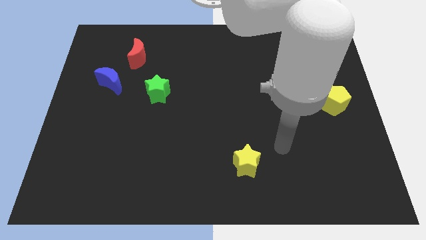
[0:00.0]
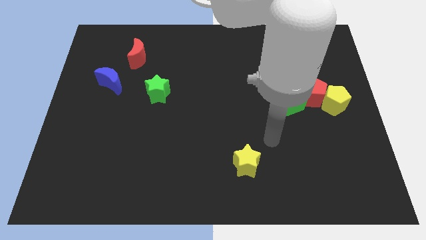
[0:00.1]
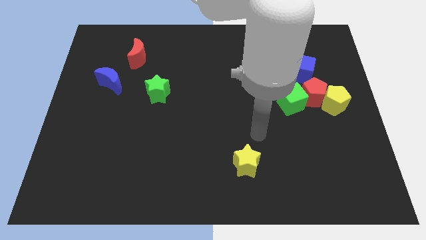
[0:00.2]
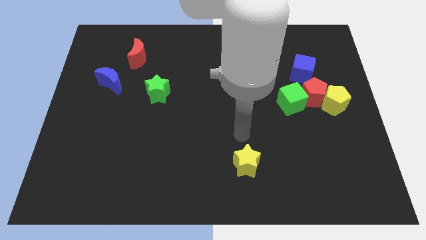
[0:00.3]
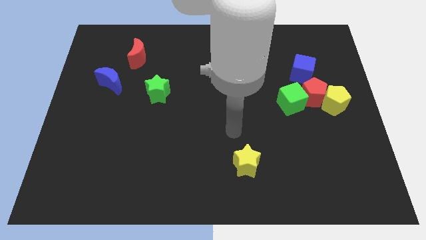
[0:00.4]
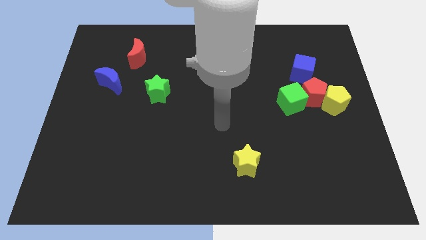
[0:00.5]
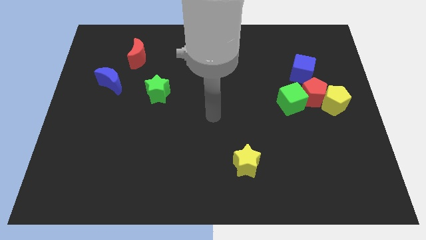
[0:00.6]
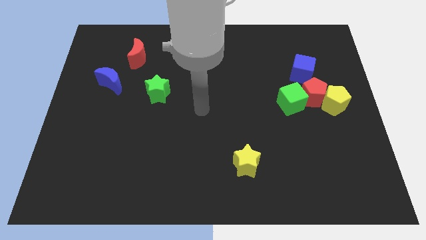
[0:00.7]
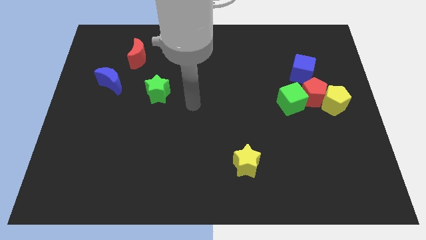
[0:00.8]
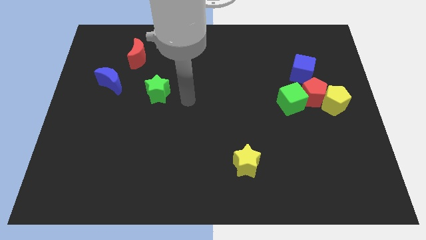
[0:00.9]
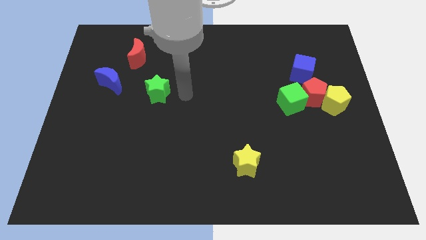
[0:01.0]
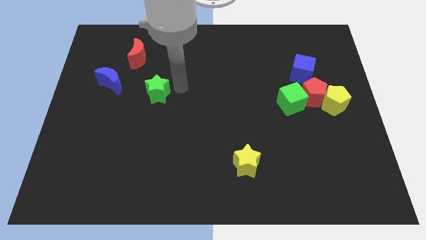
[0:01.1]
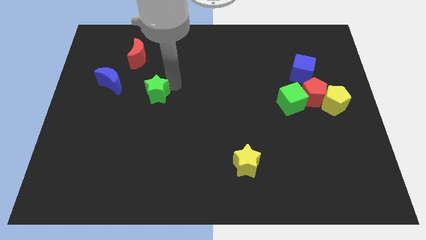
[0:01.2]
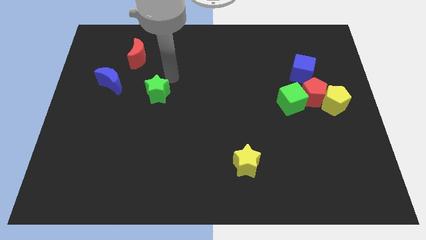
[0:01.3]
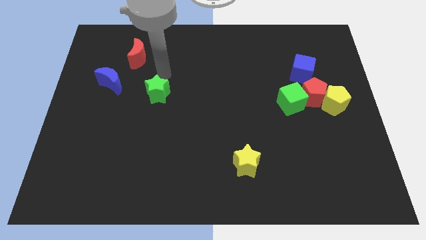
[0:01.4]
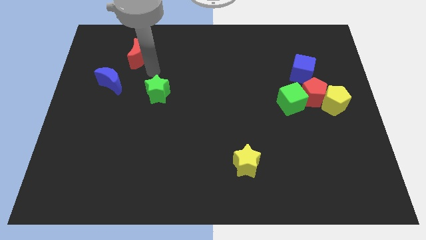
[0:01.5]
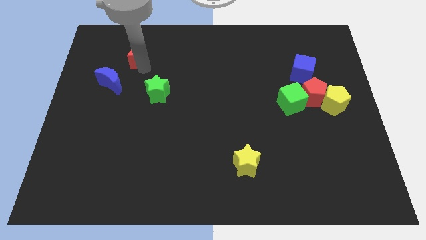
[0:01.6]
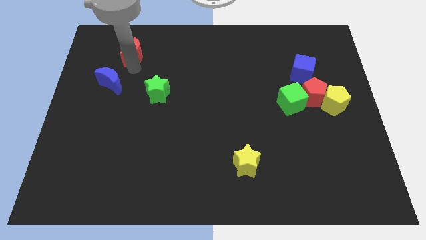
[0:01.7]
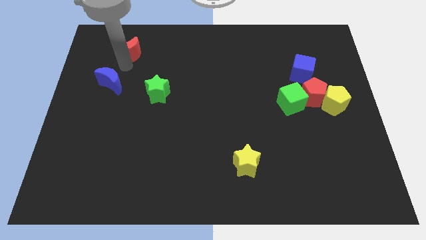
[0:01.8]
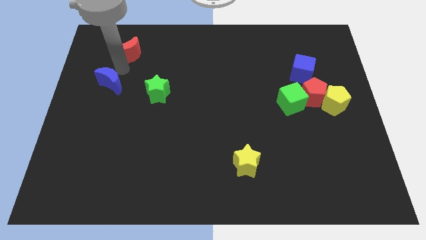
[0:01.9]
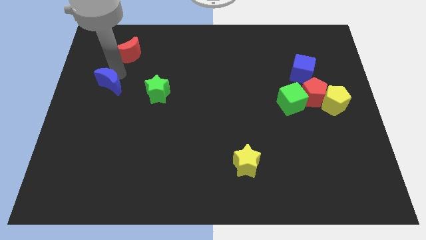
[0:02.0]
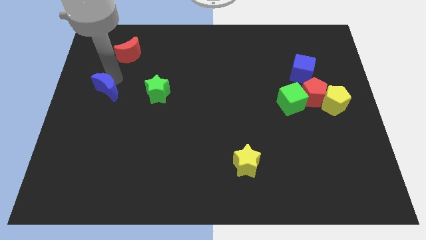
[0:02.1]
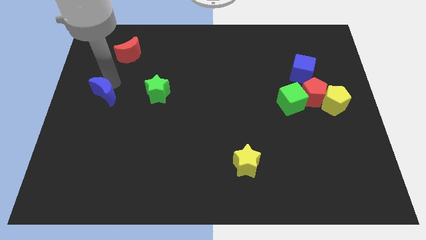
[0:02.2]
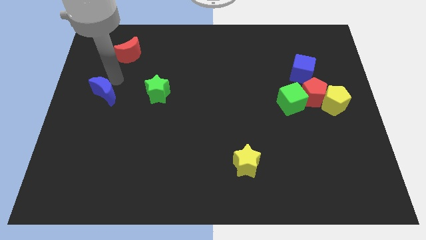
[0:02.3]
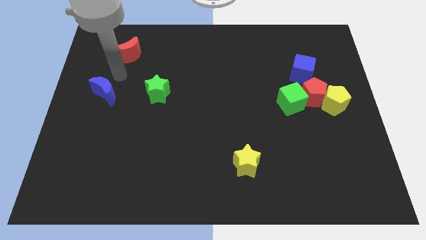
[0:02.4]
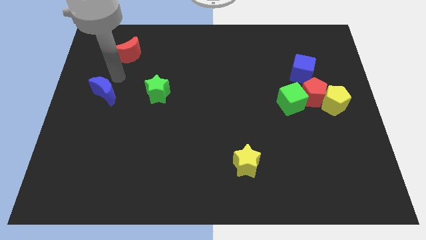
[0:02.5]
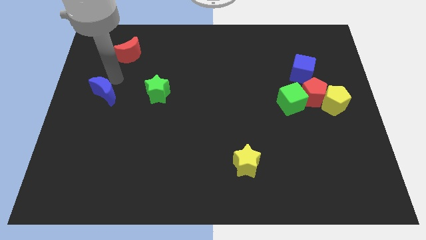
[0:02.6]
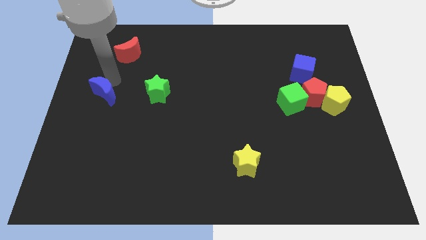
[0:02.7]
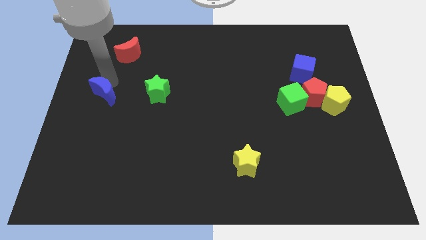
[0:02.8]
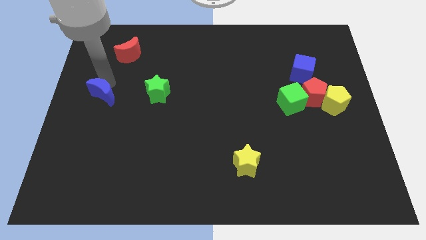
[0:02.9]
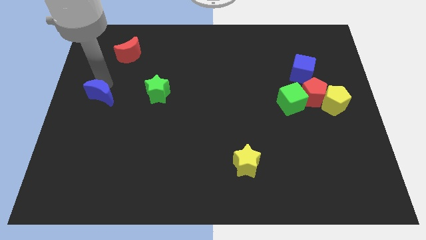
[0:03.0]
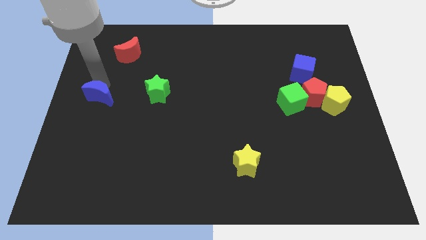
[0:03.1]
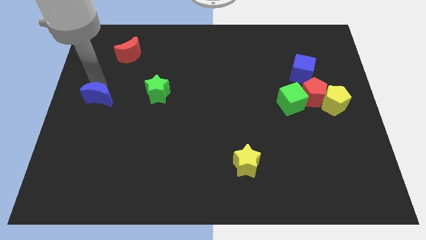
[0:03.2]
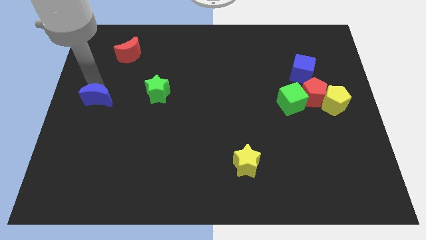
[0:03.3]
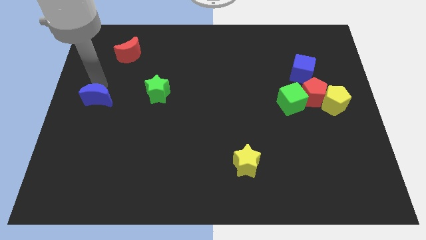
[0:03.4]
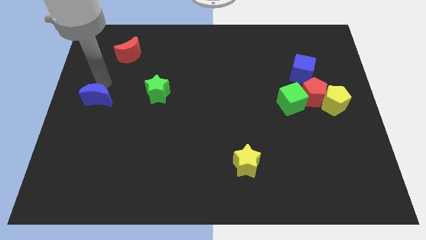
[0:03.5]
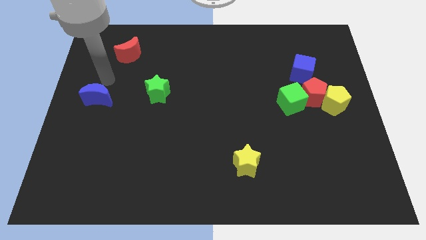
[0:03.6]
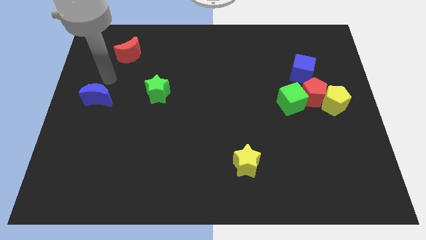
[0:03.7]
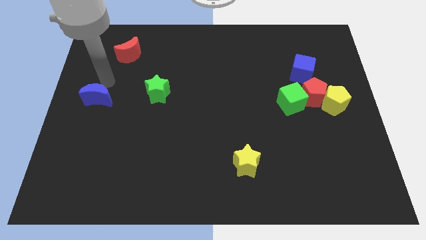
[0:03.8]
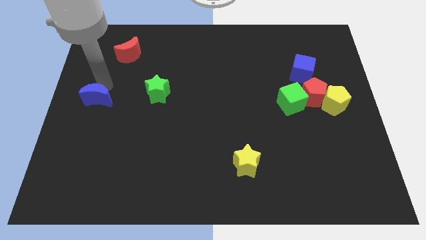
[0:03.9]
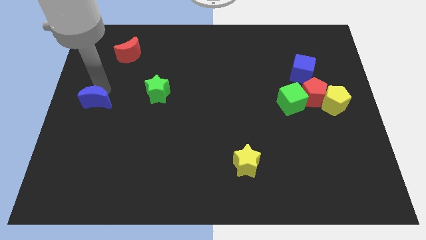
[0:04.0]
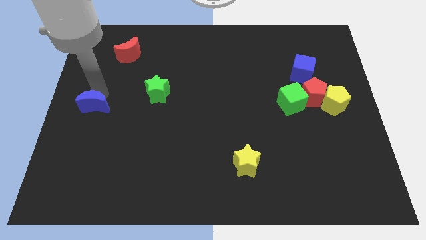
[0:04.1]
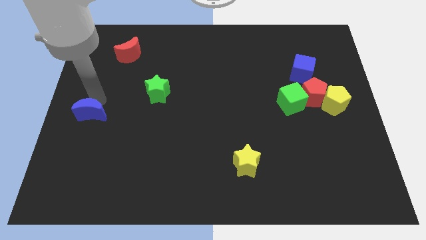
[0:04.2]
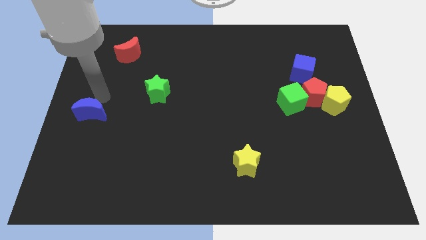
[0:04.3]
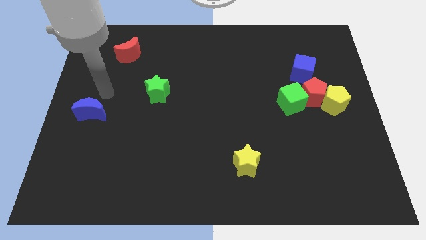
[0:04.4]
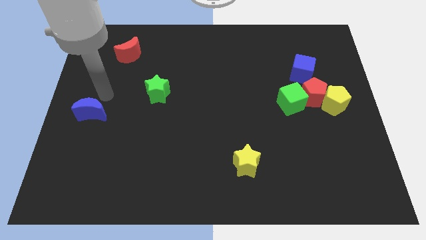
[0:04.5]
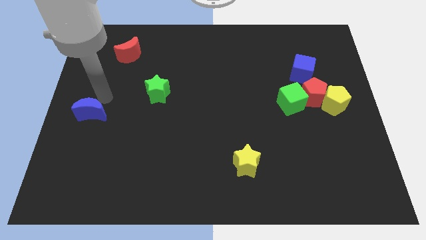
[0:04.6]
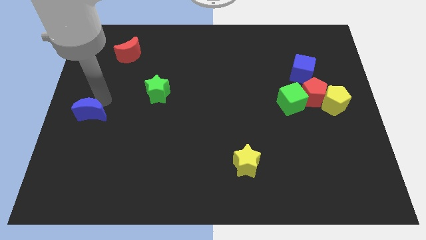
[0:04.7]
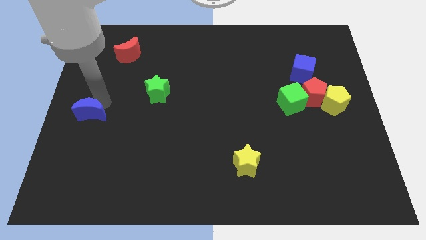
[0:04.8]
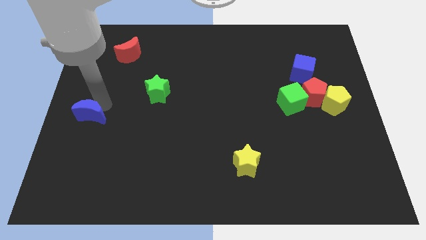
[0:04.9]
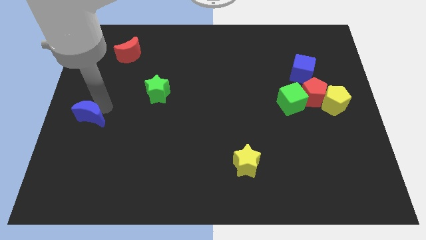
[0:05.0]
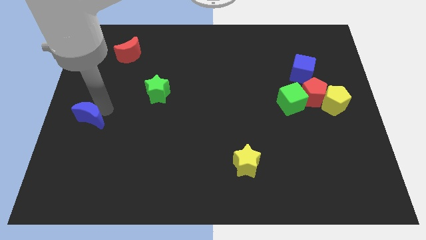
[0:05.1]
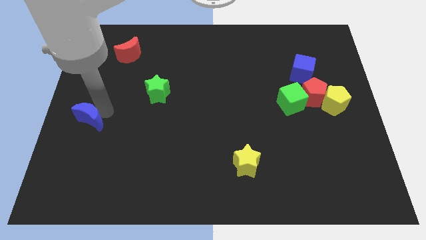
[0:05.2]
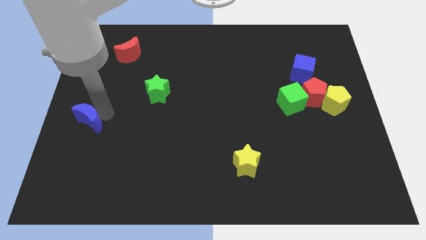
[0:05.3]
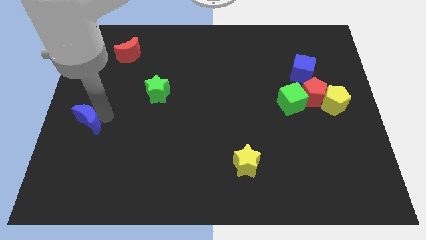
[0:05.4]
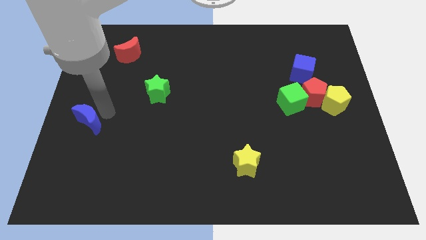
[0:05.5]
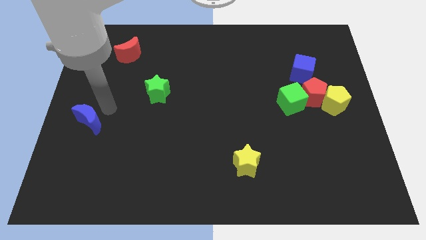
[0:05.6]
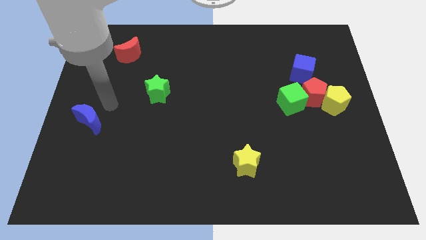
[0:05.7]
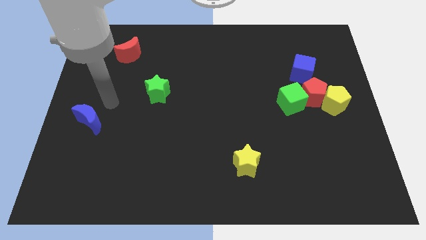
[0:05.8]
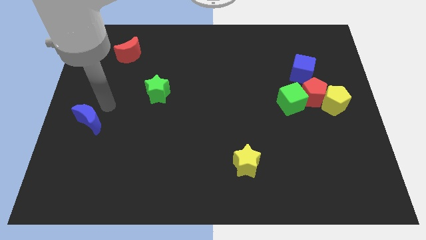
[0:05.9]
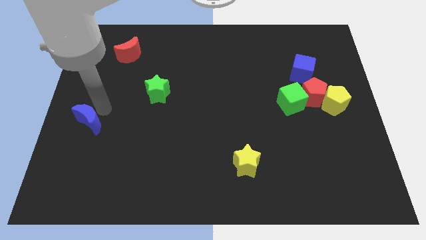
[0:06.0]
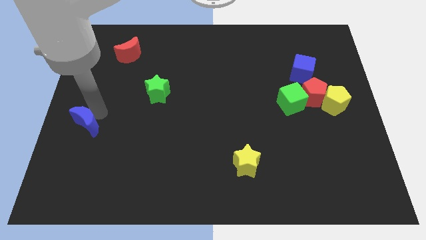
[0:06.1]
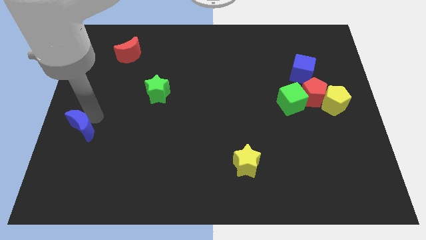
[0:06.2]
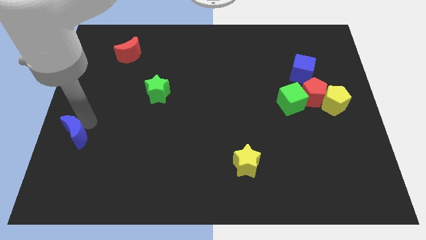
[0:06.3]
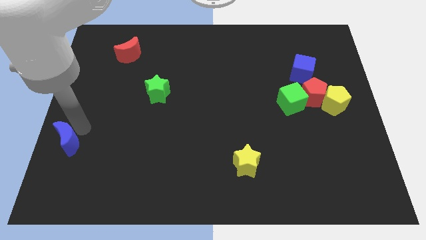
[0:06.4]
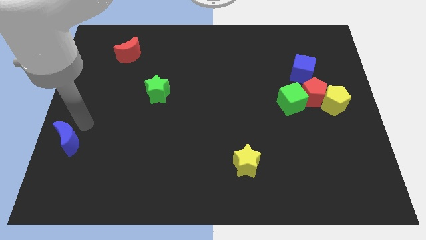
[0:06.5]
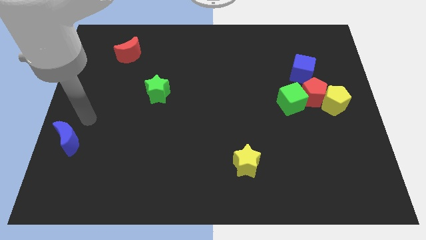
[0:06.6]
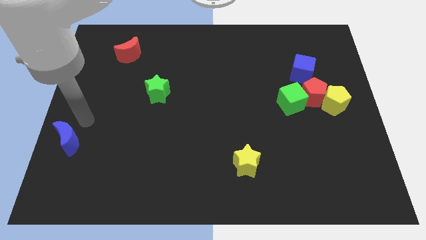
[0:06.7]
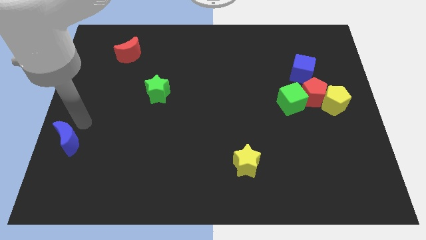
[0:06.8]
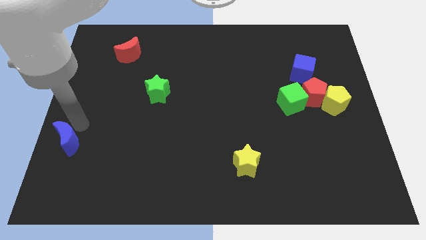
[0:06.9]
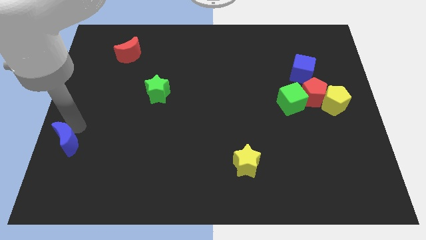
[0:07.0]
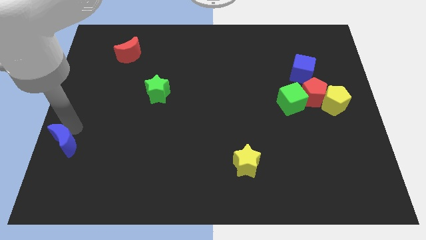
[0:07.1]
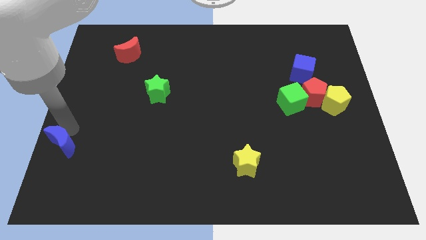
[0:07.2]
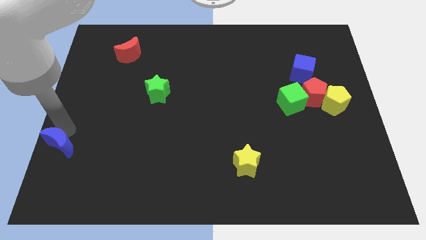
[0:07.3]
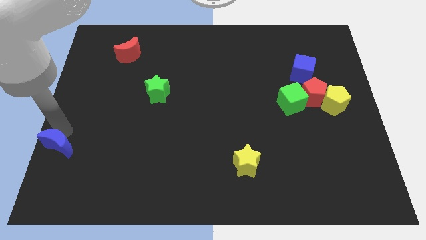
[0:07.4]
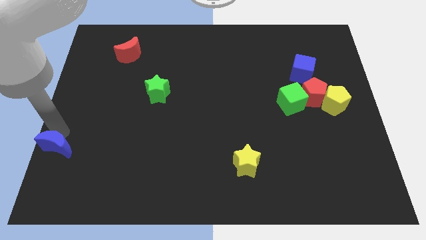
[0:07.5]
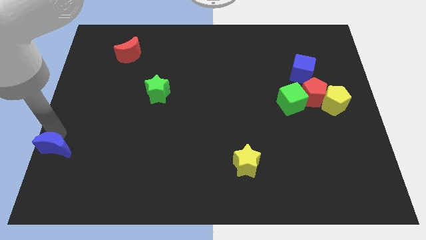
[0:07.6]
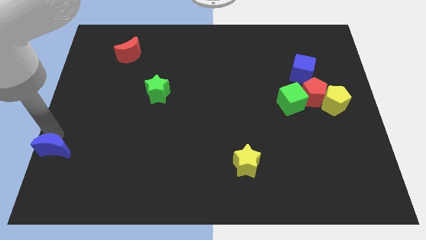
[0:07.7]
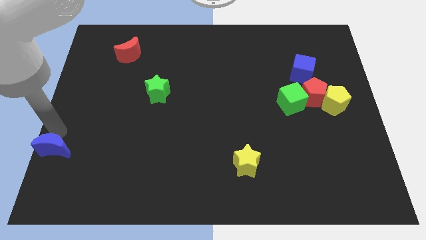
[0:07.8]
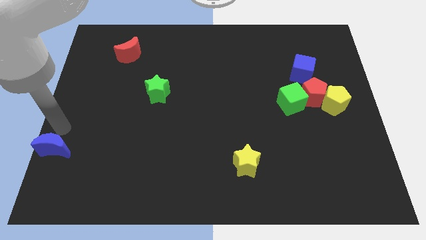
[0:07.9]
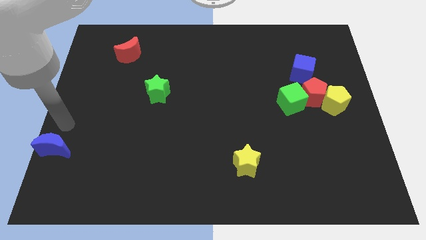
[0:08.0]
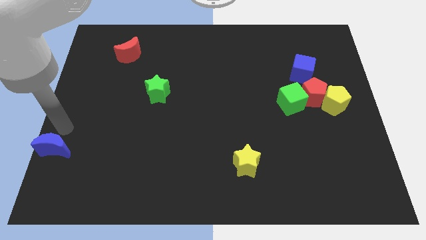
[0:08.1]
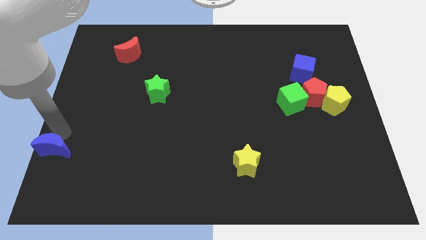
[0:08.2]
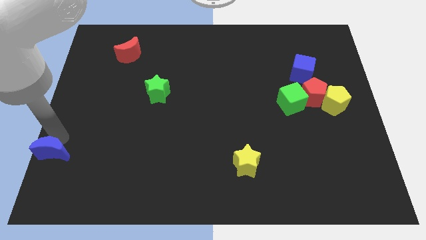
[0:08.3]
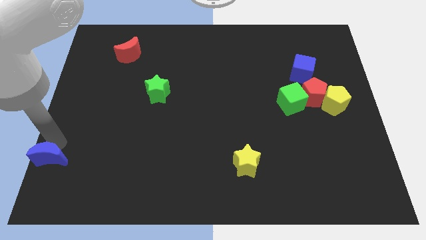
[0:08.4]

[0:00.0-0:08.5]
move the blue moon to the bottom left of the board
